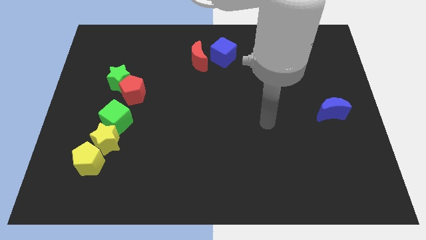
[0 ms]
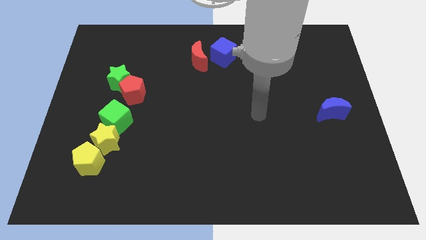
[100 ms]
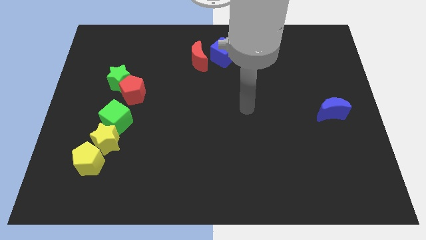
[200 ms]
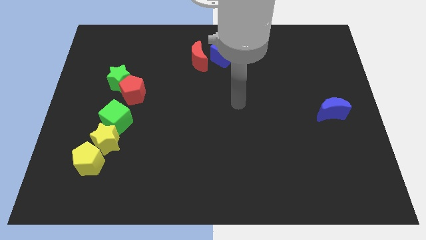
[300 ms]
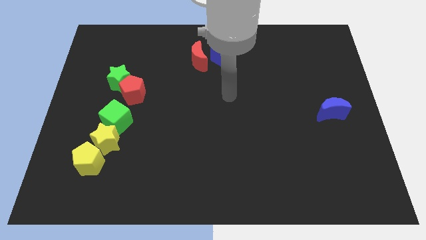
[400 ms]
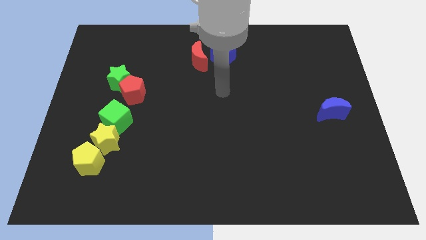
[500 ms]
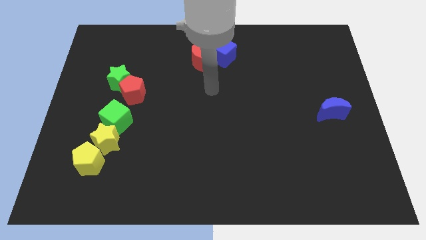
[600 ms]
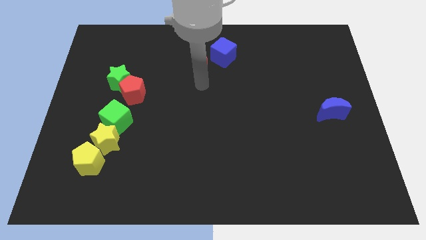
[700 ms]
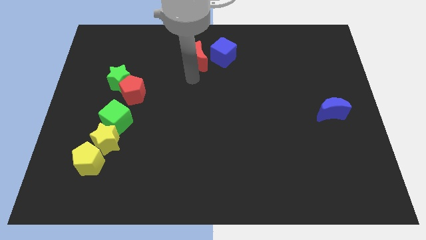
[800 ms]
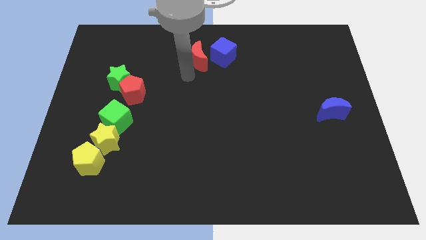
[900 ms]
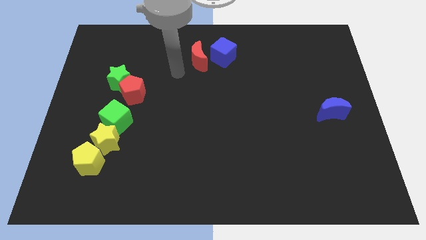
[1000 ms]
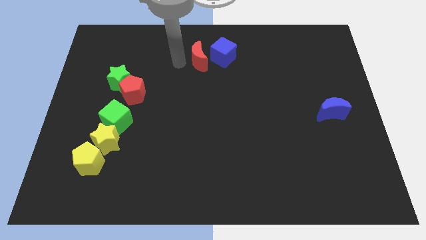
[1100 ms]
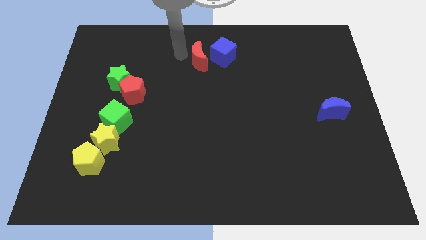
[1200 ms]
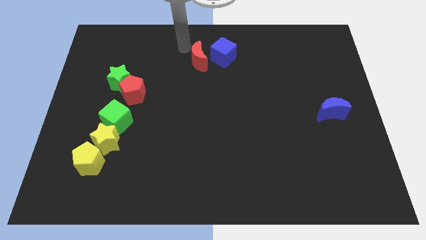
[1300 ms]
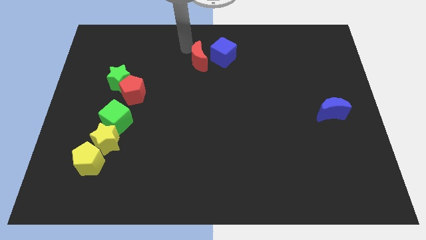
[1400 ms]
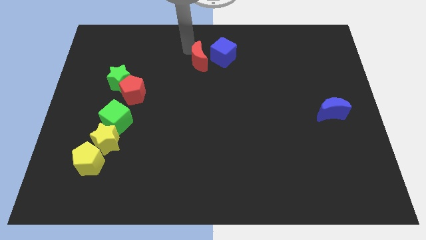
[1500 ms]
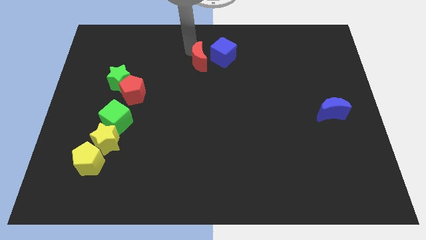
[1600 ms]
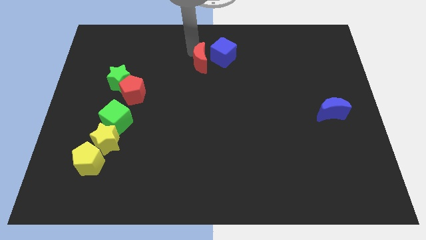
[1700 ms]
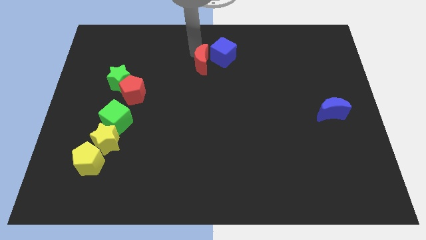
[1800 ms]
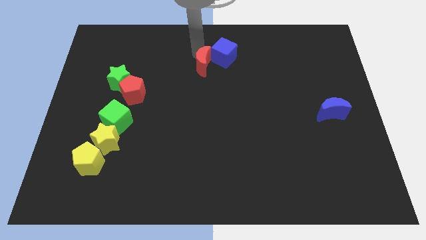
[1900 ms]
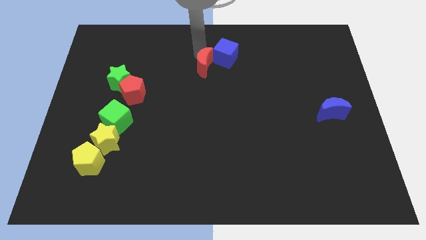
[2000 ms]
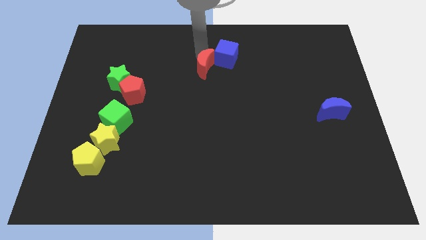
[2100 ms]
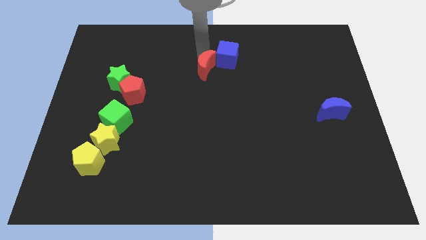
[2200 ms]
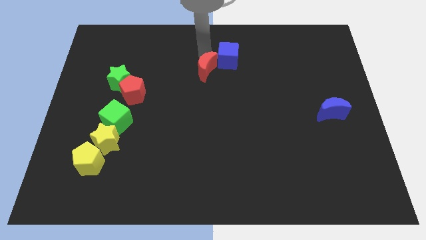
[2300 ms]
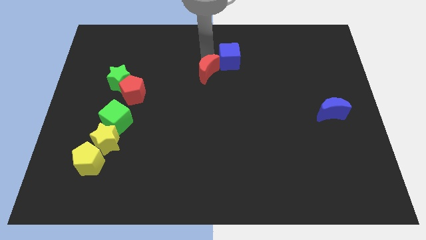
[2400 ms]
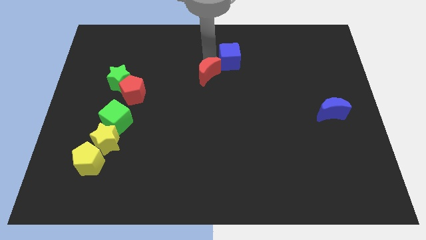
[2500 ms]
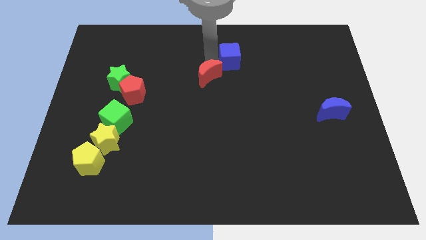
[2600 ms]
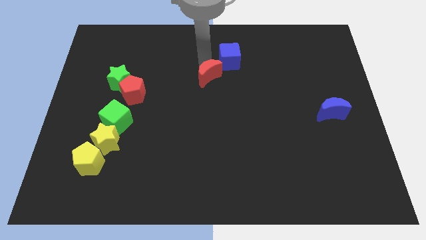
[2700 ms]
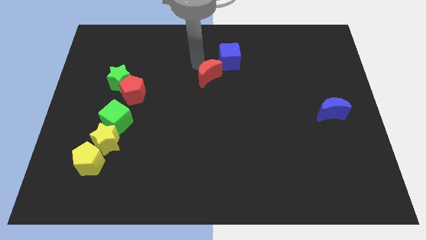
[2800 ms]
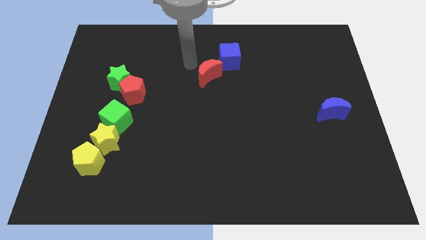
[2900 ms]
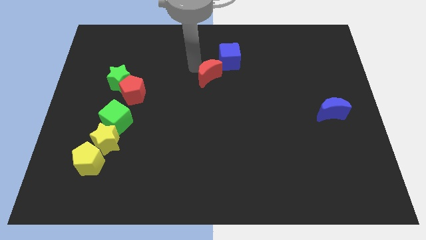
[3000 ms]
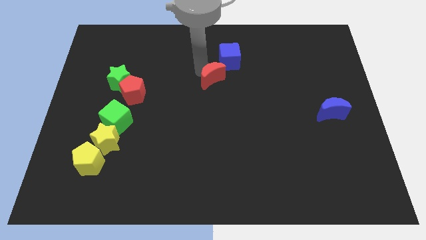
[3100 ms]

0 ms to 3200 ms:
push the red moon slightly down and to the right

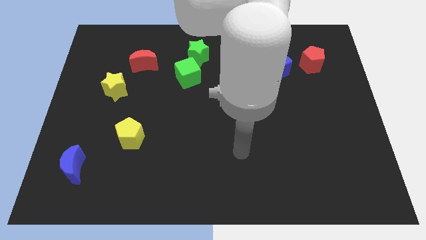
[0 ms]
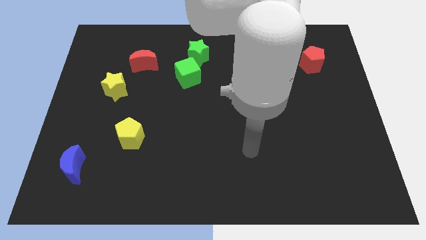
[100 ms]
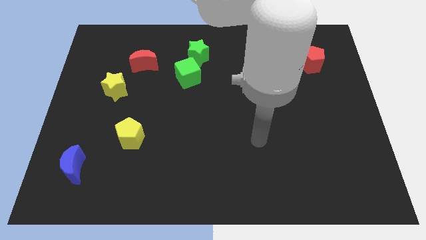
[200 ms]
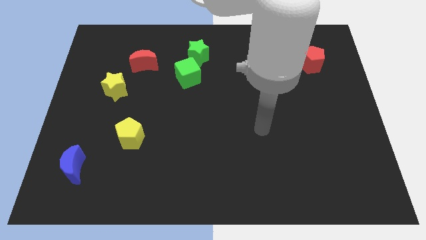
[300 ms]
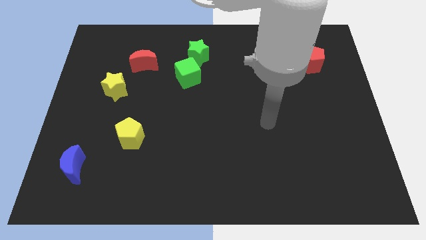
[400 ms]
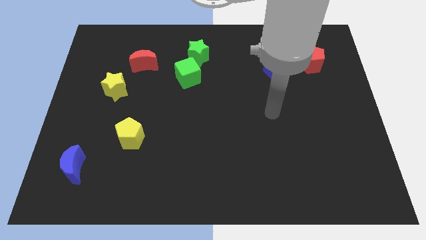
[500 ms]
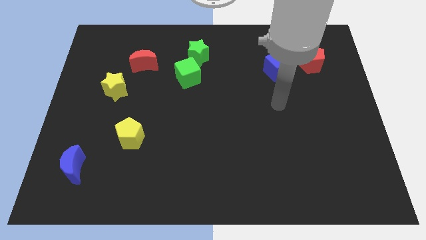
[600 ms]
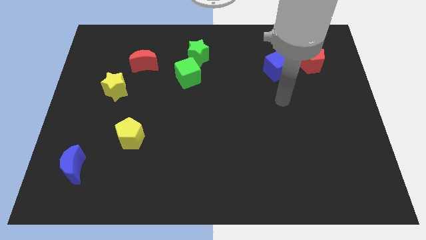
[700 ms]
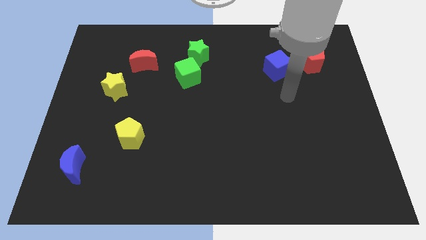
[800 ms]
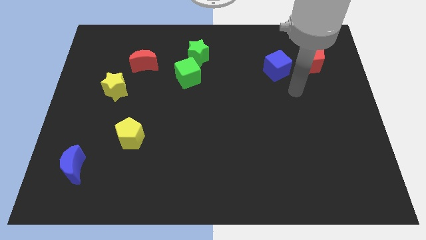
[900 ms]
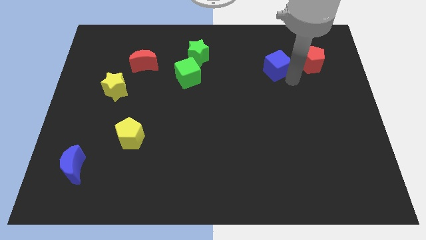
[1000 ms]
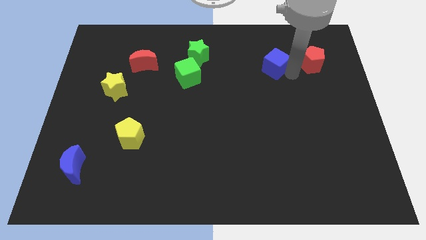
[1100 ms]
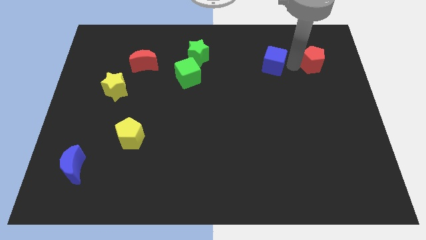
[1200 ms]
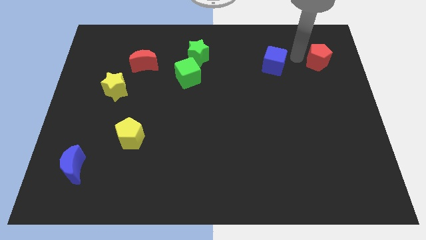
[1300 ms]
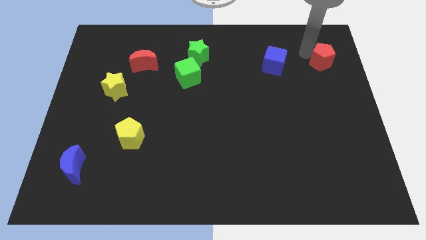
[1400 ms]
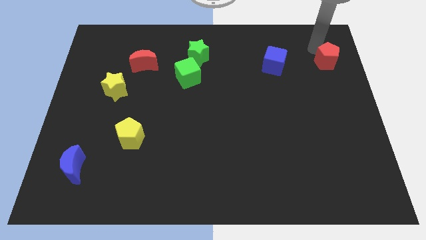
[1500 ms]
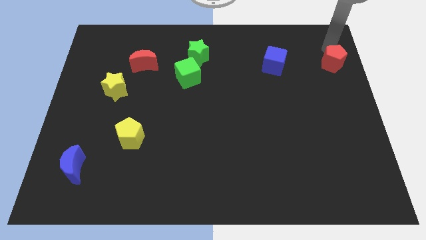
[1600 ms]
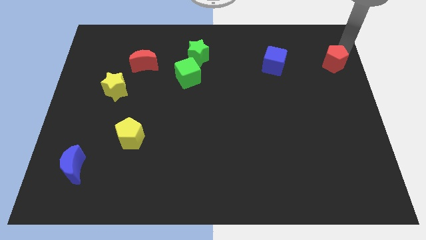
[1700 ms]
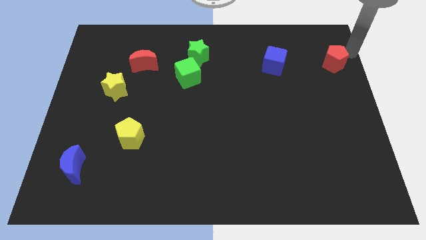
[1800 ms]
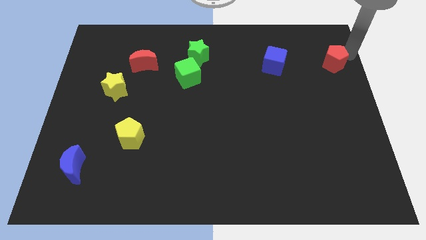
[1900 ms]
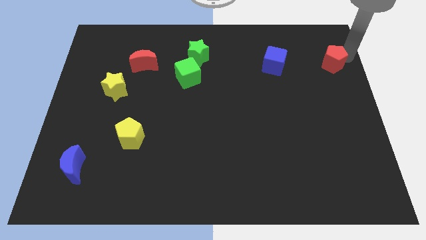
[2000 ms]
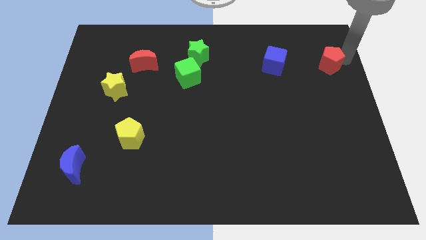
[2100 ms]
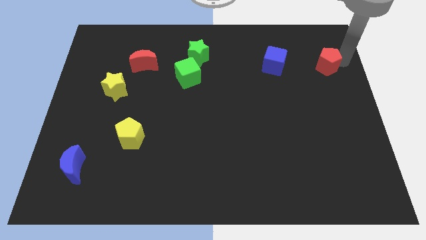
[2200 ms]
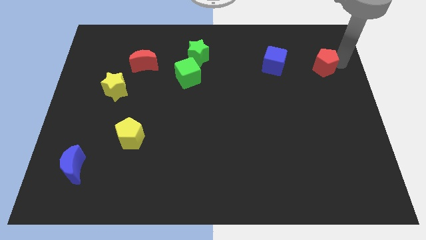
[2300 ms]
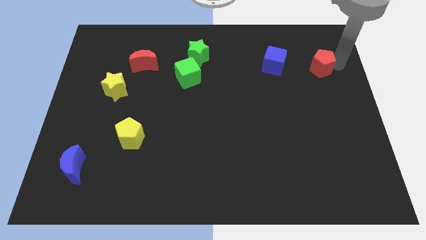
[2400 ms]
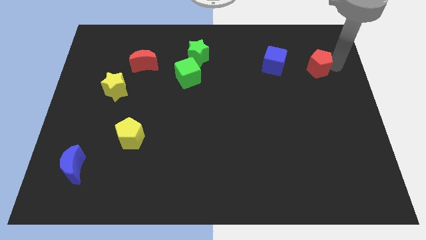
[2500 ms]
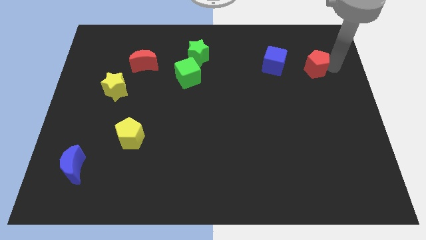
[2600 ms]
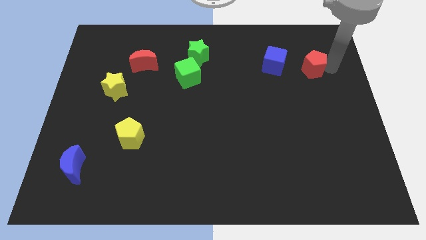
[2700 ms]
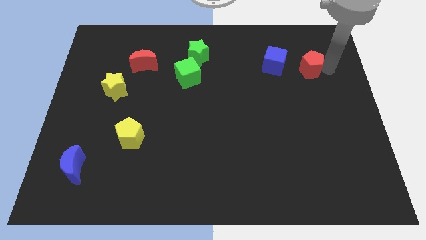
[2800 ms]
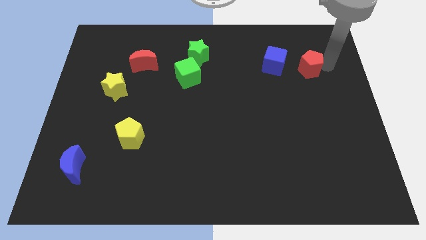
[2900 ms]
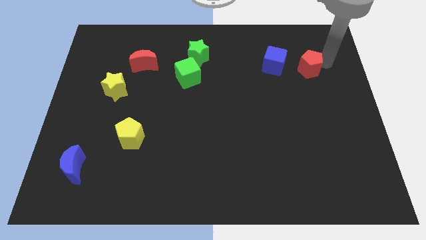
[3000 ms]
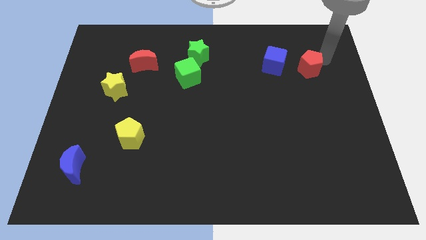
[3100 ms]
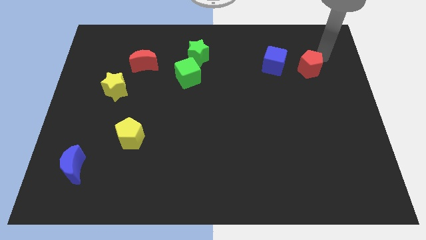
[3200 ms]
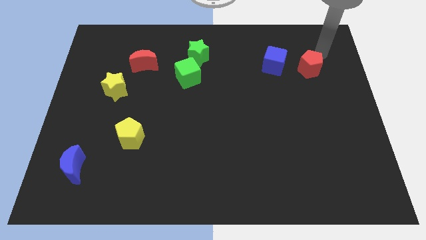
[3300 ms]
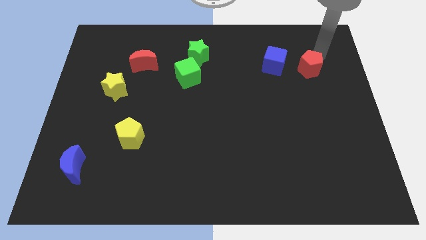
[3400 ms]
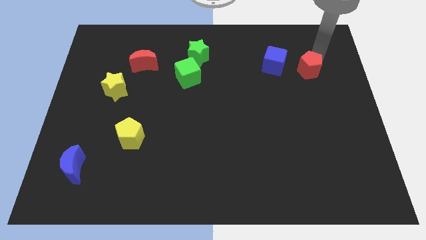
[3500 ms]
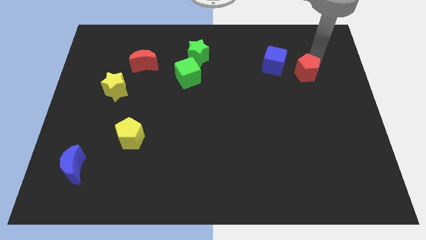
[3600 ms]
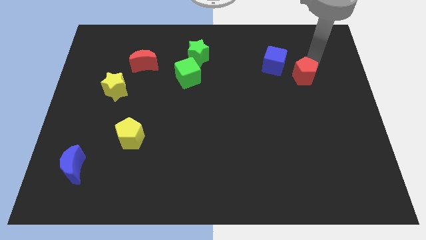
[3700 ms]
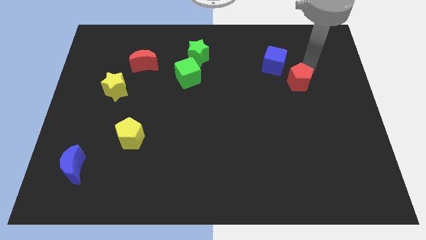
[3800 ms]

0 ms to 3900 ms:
slide the red pentagon a little bit diagonally downwards and left

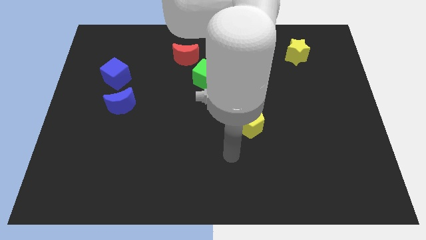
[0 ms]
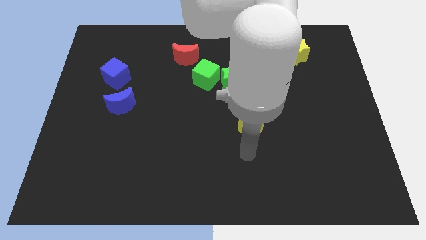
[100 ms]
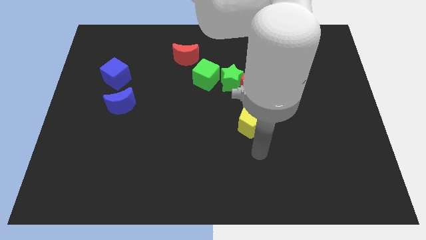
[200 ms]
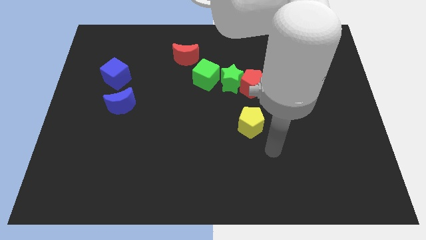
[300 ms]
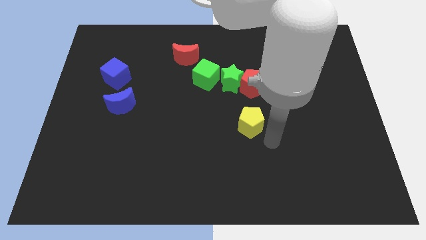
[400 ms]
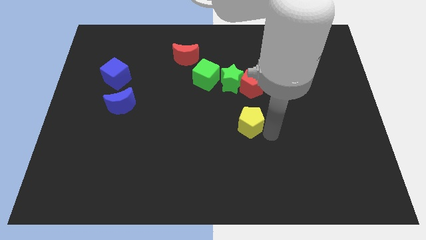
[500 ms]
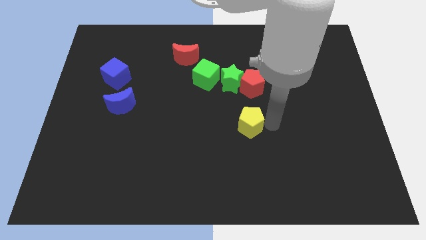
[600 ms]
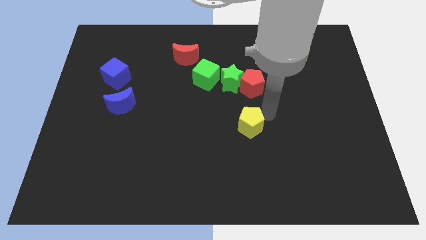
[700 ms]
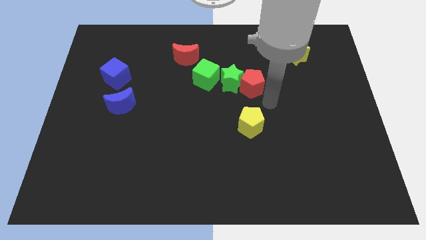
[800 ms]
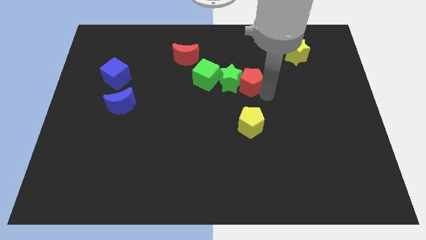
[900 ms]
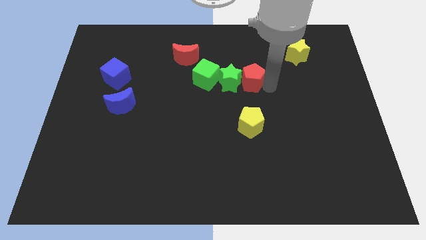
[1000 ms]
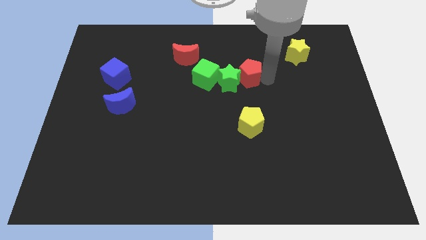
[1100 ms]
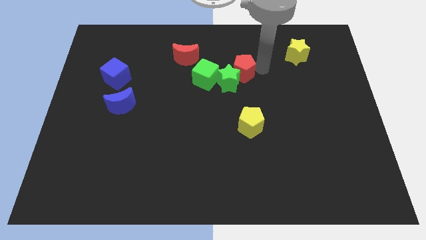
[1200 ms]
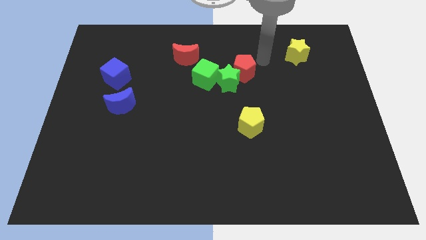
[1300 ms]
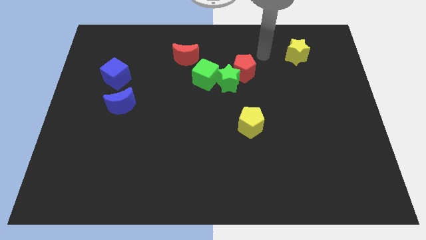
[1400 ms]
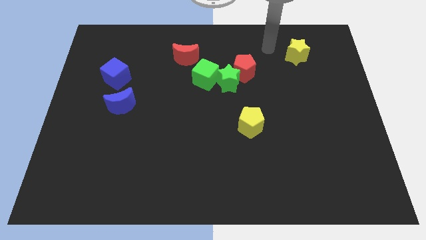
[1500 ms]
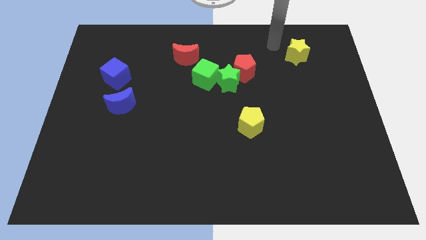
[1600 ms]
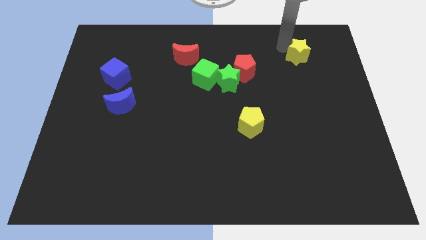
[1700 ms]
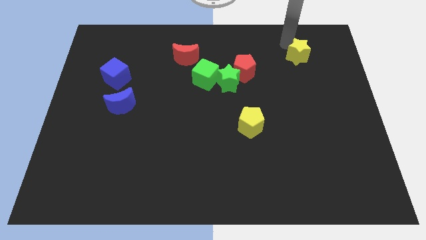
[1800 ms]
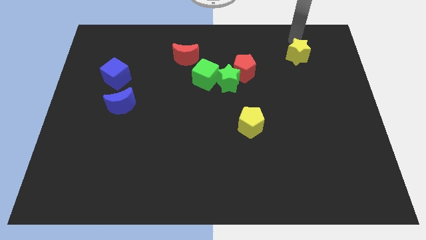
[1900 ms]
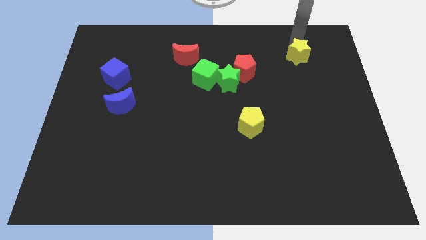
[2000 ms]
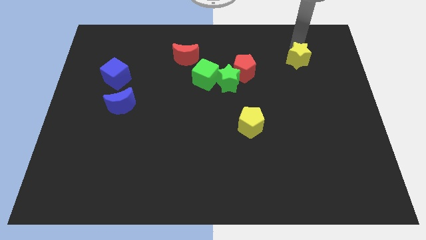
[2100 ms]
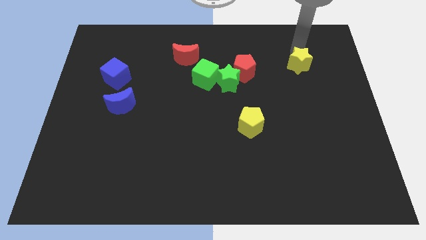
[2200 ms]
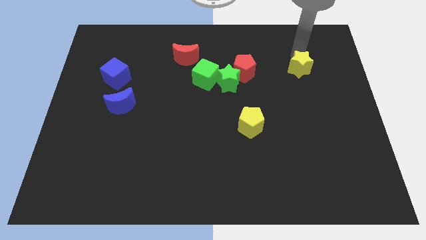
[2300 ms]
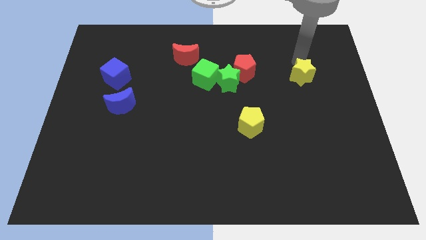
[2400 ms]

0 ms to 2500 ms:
slightly slide the yellow star down
